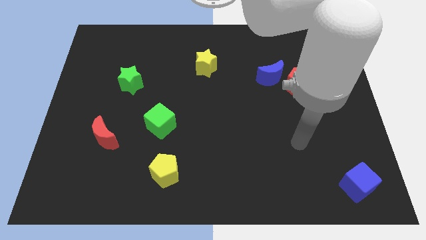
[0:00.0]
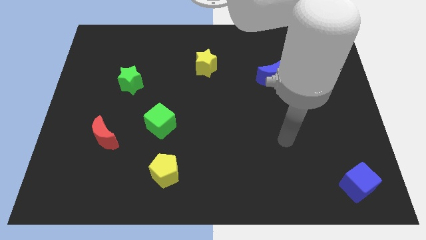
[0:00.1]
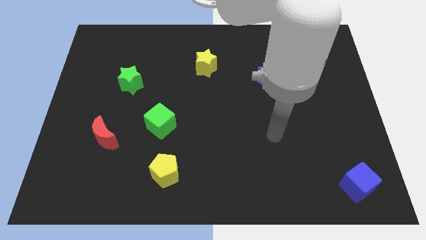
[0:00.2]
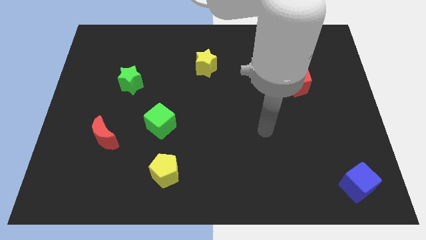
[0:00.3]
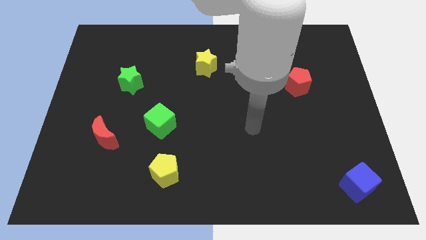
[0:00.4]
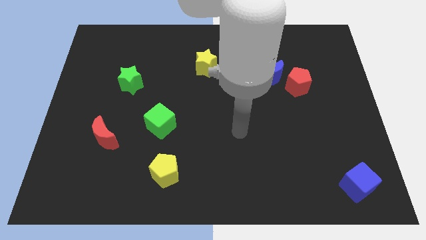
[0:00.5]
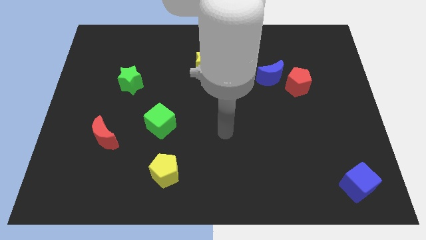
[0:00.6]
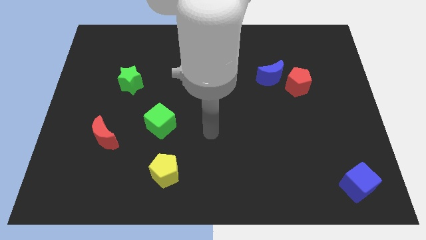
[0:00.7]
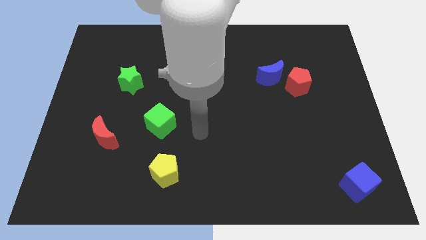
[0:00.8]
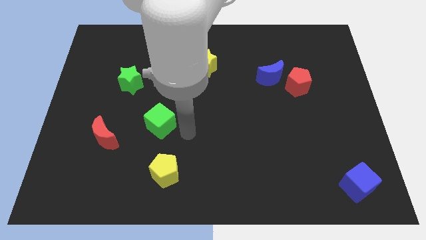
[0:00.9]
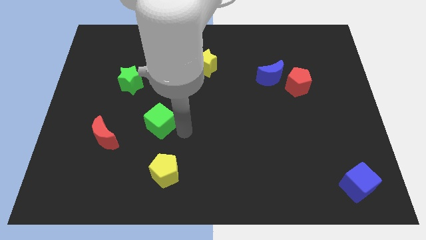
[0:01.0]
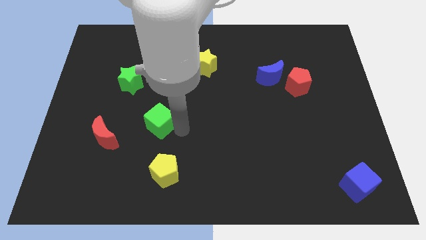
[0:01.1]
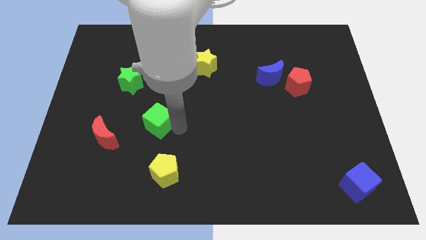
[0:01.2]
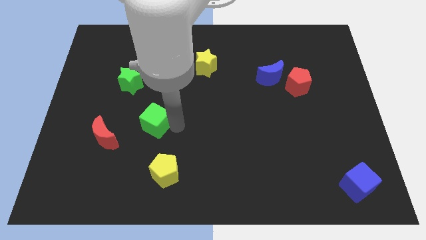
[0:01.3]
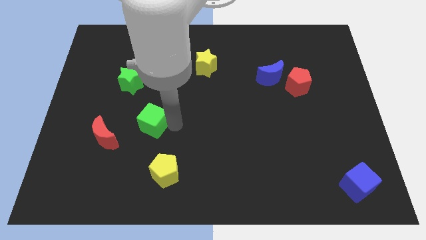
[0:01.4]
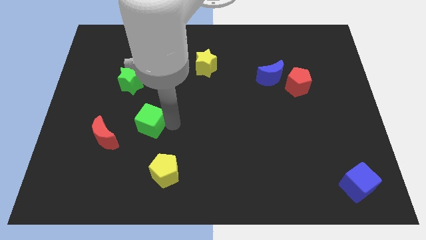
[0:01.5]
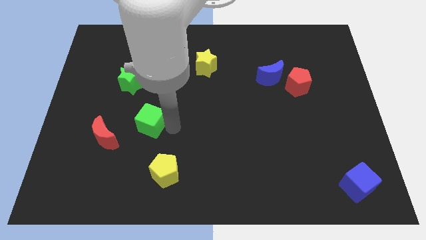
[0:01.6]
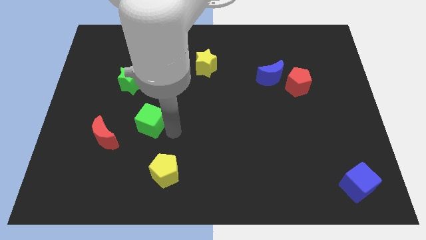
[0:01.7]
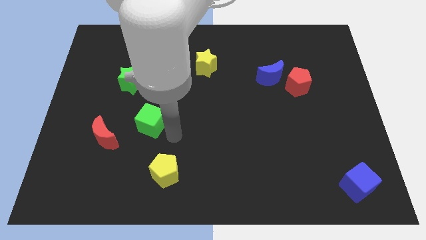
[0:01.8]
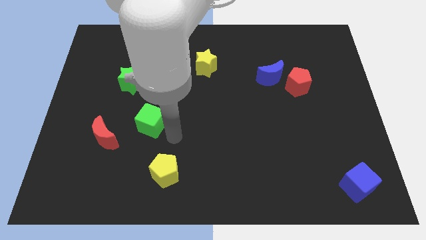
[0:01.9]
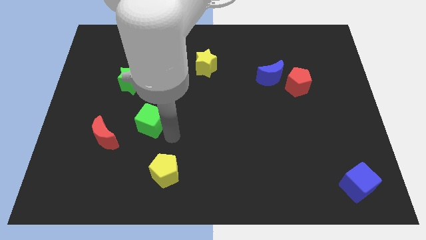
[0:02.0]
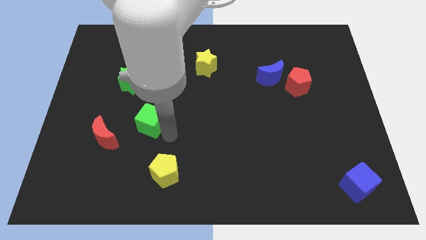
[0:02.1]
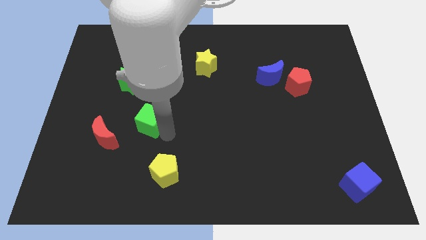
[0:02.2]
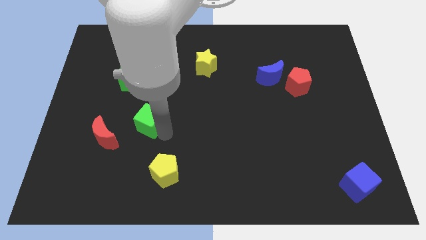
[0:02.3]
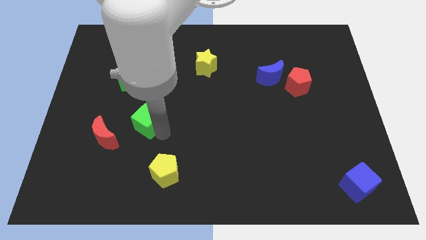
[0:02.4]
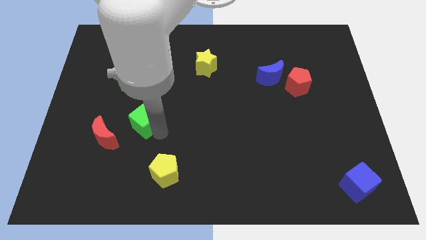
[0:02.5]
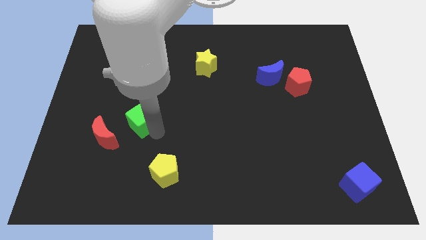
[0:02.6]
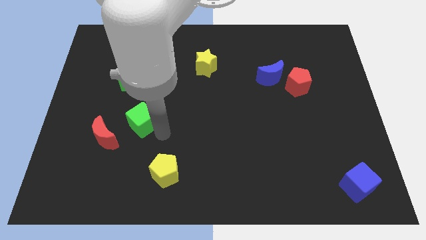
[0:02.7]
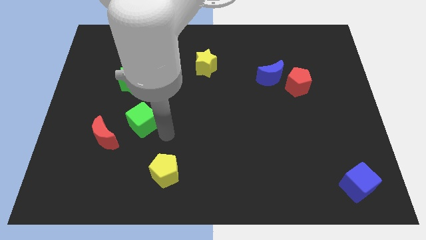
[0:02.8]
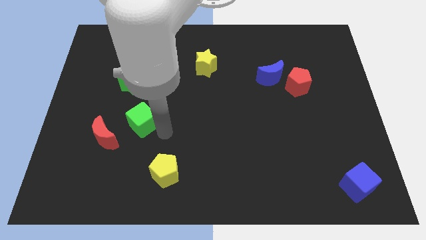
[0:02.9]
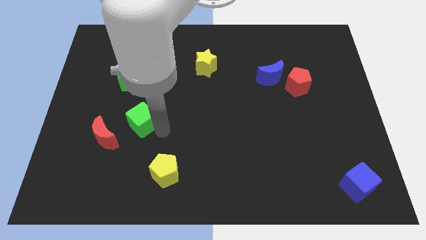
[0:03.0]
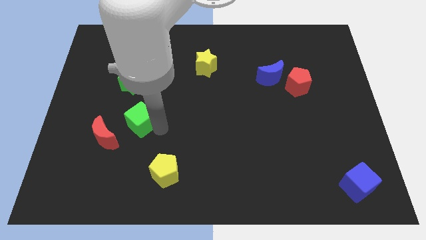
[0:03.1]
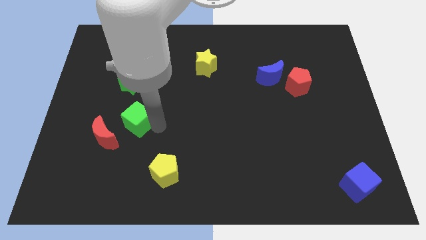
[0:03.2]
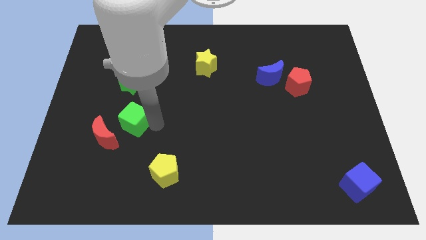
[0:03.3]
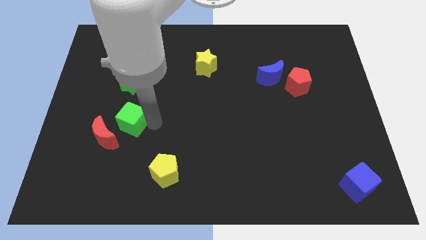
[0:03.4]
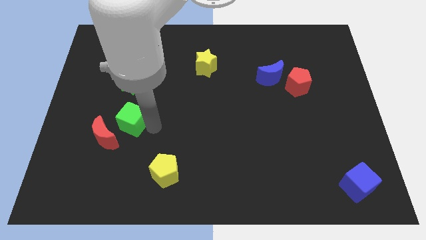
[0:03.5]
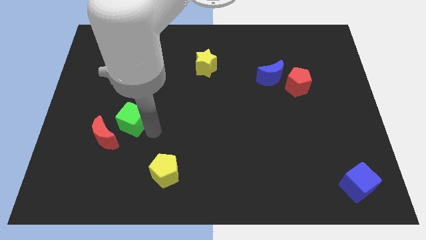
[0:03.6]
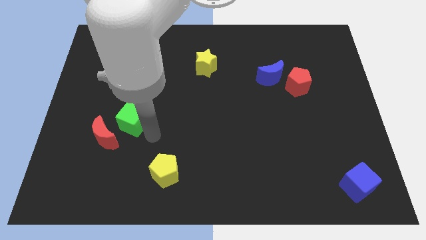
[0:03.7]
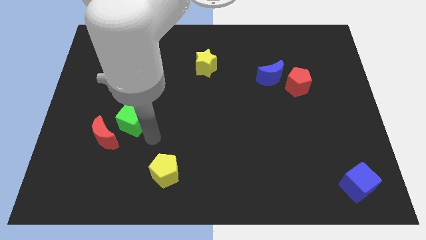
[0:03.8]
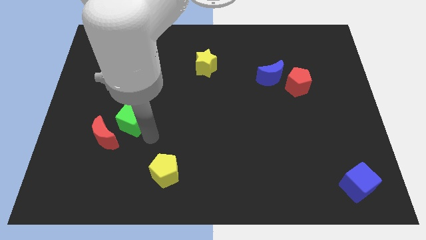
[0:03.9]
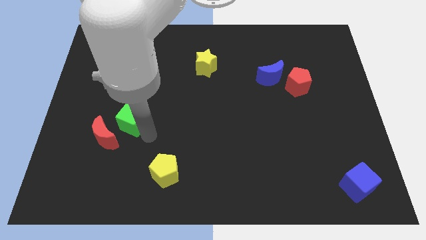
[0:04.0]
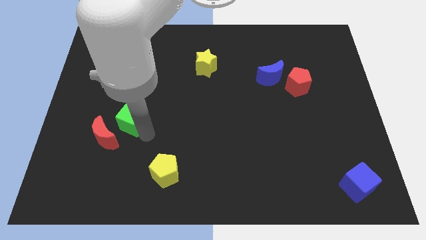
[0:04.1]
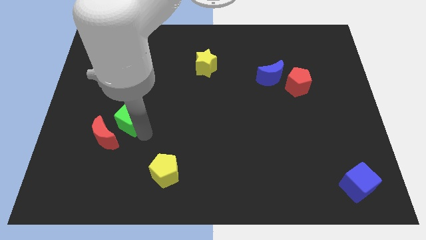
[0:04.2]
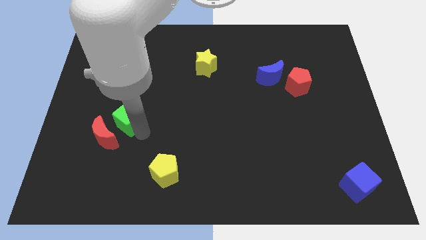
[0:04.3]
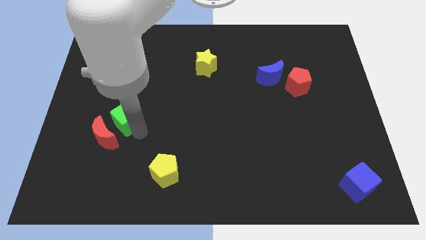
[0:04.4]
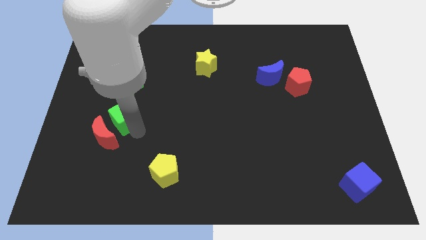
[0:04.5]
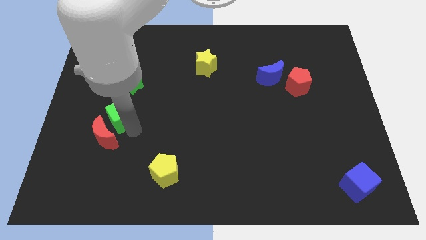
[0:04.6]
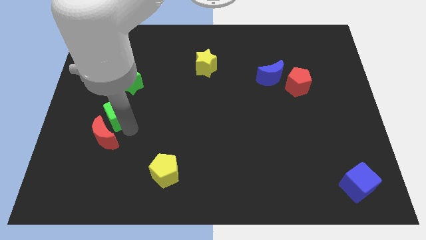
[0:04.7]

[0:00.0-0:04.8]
slightly slide the green cube diagonally up and left

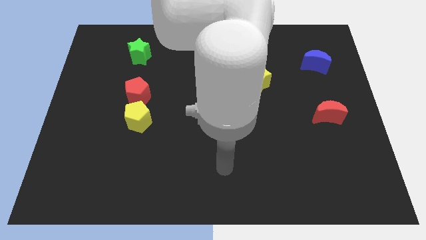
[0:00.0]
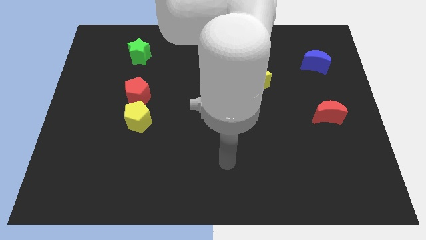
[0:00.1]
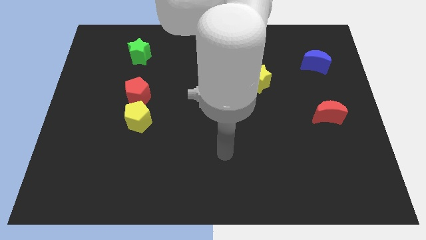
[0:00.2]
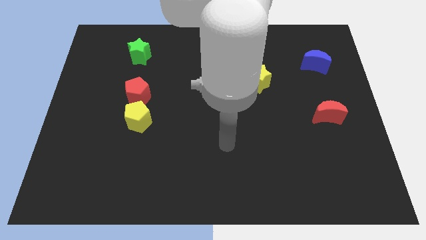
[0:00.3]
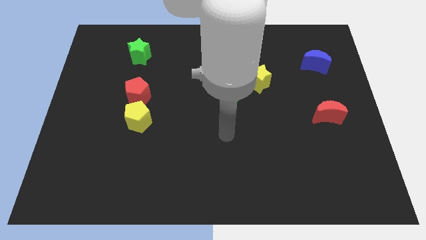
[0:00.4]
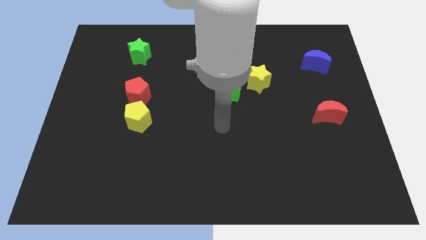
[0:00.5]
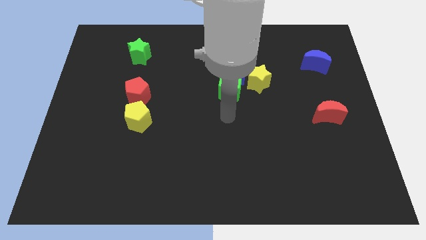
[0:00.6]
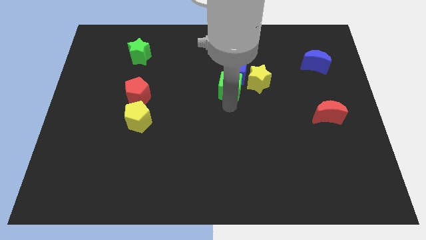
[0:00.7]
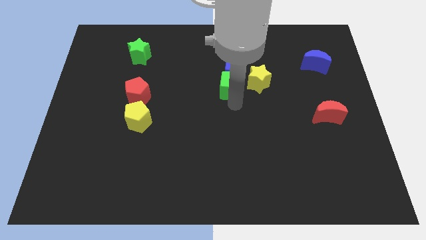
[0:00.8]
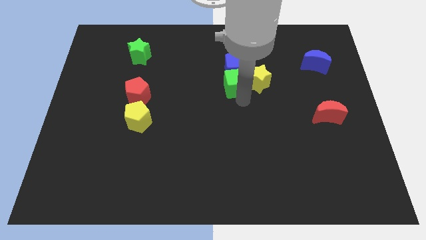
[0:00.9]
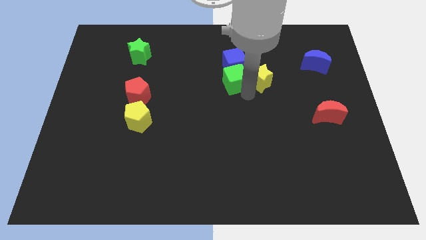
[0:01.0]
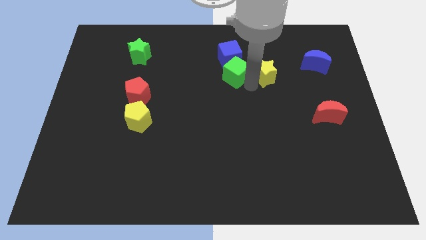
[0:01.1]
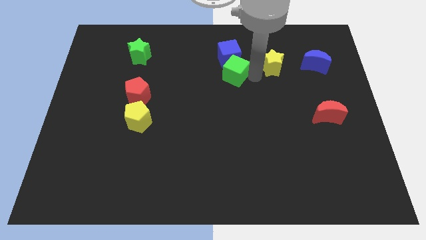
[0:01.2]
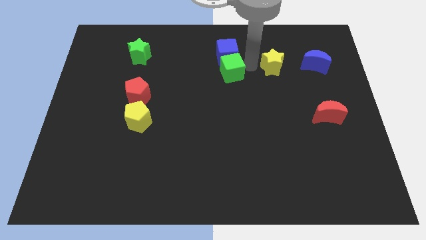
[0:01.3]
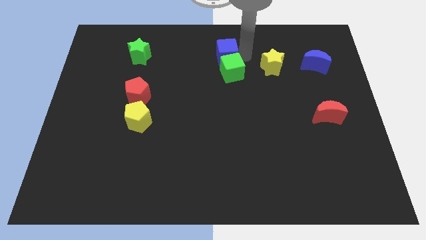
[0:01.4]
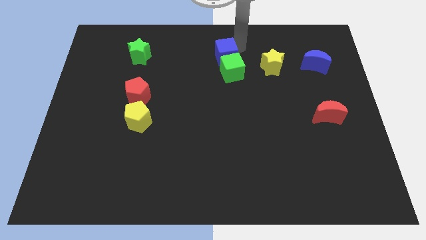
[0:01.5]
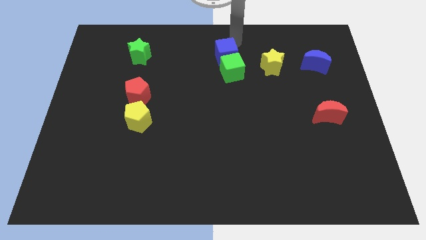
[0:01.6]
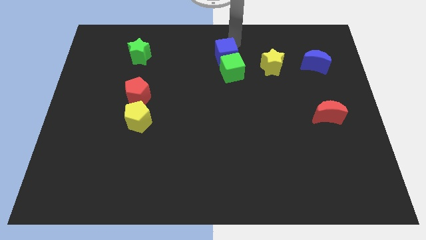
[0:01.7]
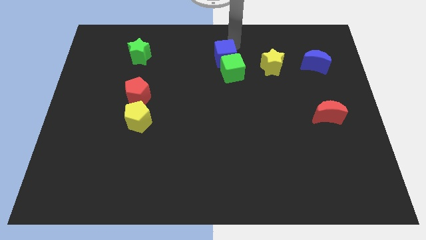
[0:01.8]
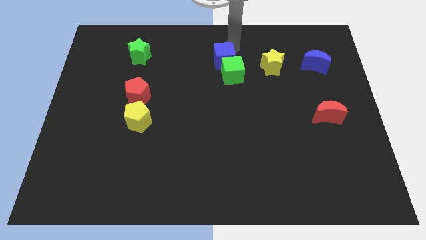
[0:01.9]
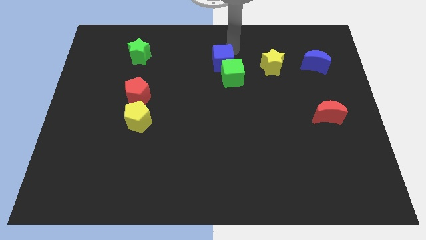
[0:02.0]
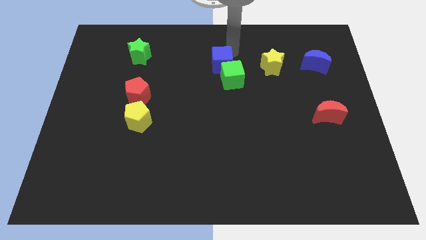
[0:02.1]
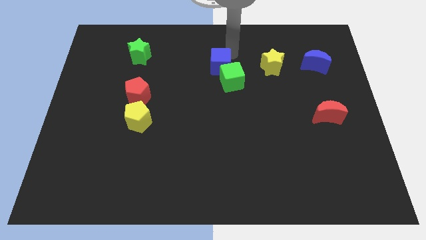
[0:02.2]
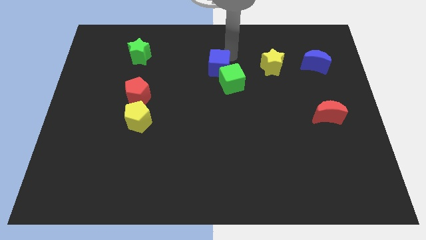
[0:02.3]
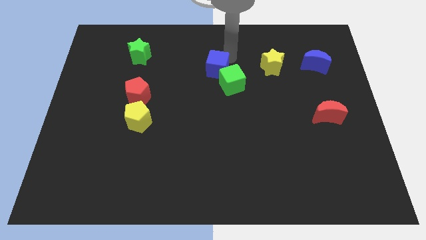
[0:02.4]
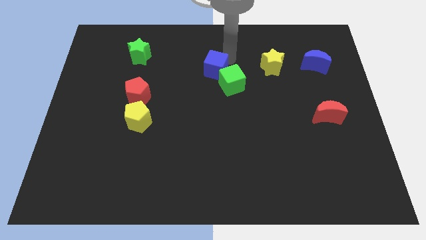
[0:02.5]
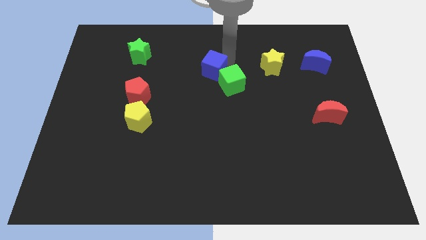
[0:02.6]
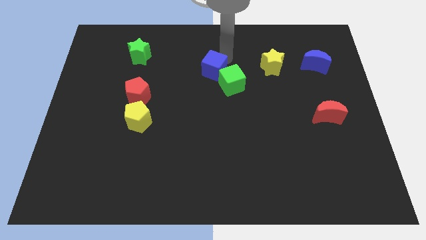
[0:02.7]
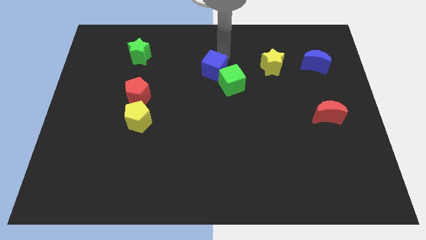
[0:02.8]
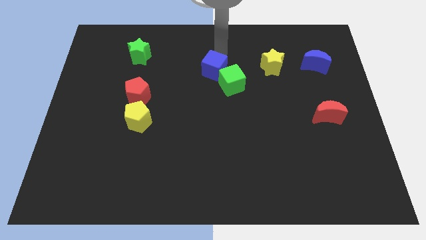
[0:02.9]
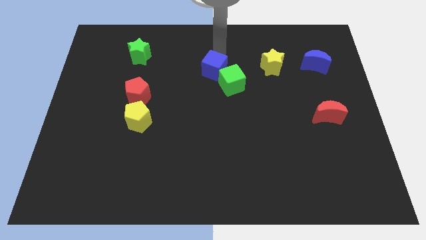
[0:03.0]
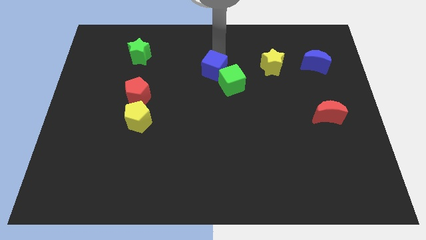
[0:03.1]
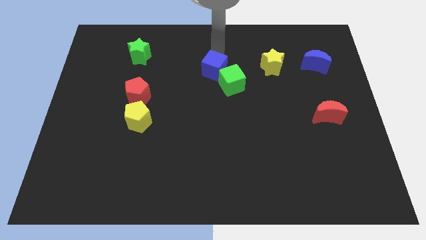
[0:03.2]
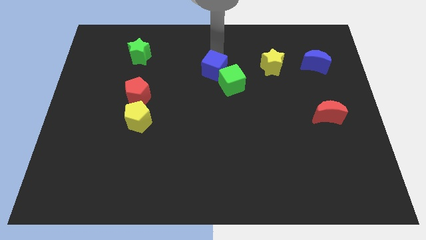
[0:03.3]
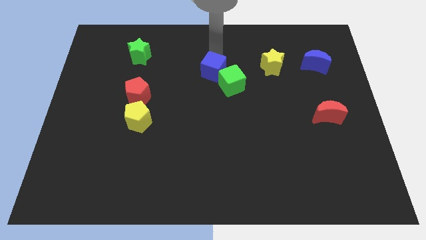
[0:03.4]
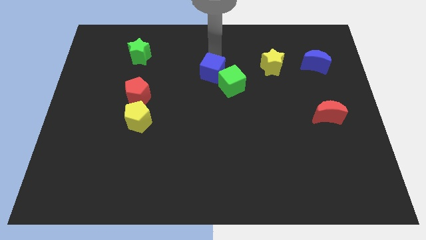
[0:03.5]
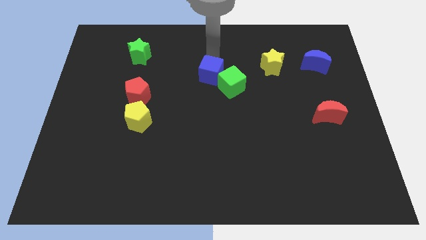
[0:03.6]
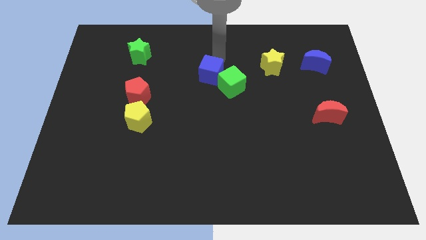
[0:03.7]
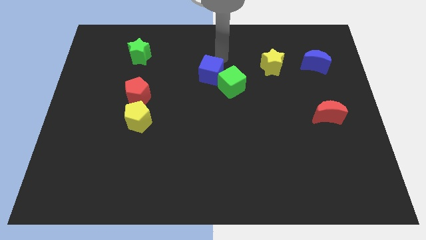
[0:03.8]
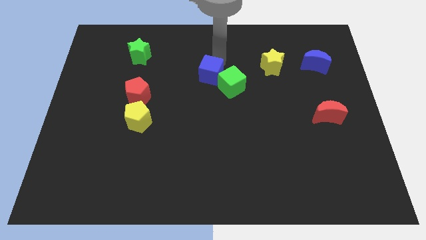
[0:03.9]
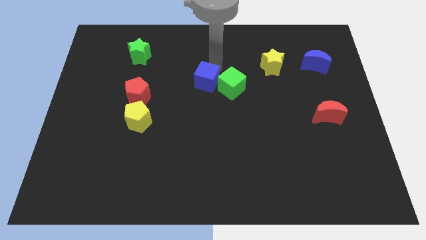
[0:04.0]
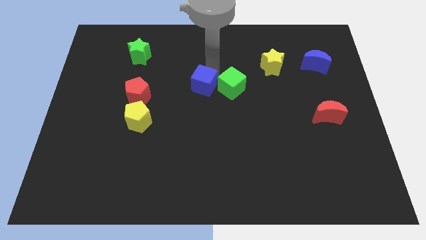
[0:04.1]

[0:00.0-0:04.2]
slightly push the blue cube down and left diagonally
